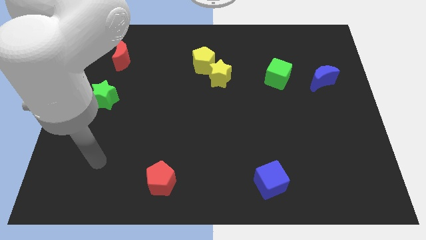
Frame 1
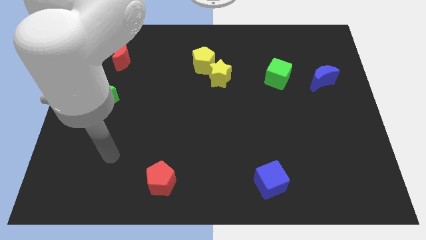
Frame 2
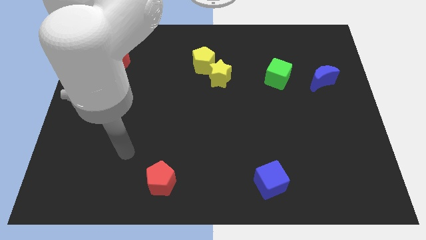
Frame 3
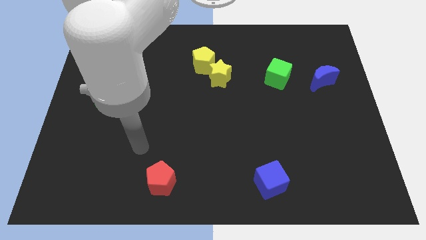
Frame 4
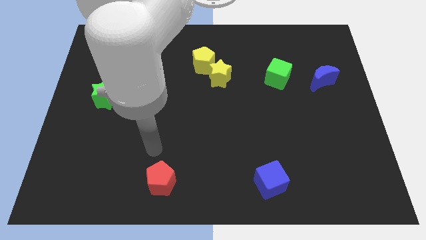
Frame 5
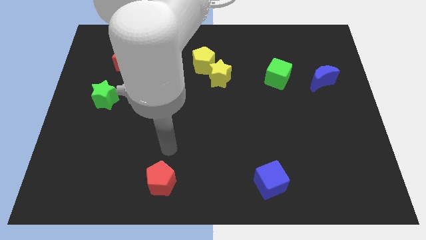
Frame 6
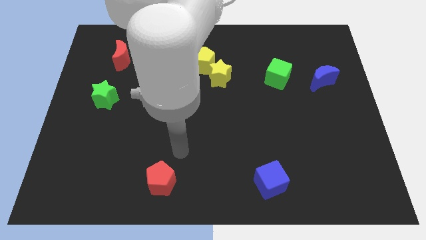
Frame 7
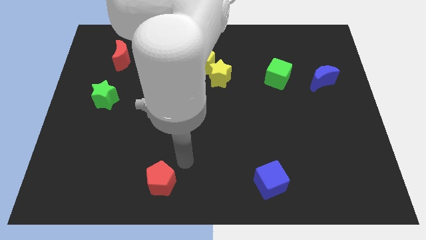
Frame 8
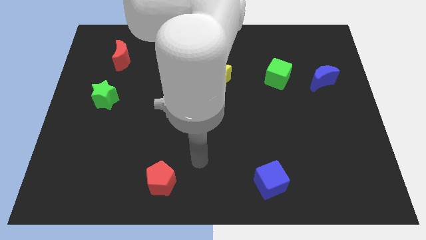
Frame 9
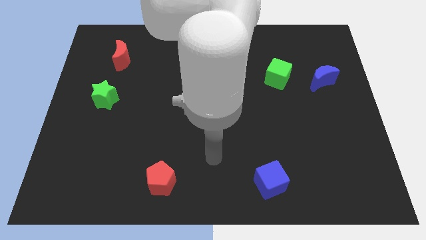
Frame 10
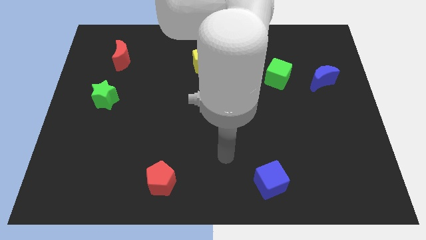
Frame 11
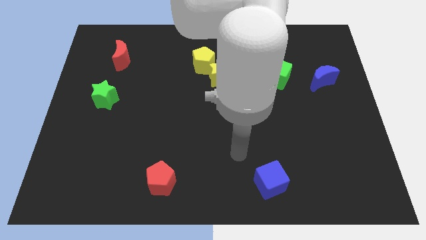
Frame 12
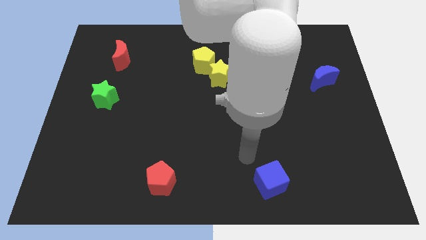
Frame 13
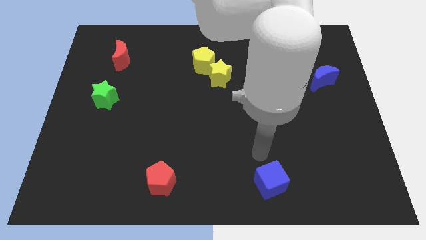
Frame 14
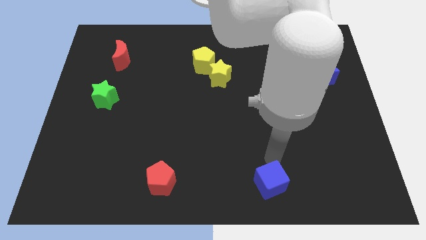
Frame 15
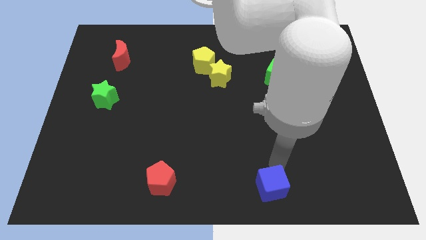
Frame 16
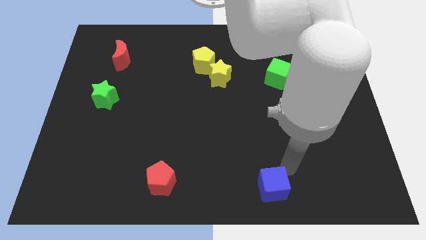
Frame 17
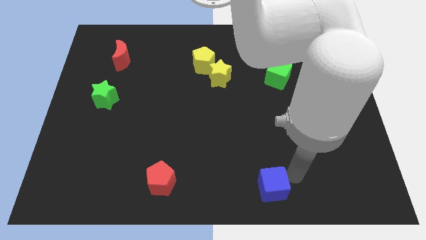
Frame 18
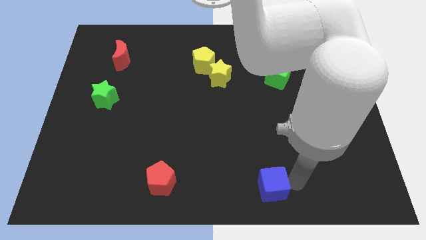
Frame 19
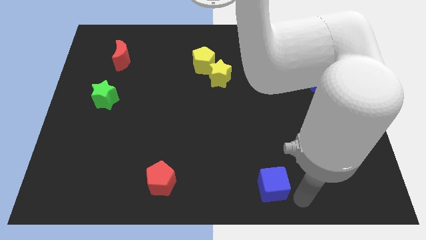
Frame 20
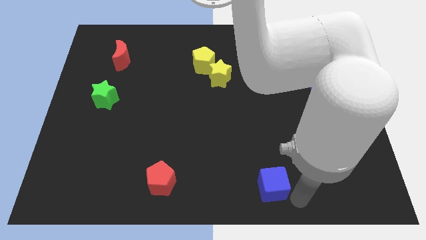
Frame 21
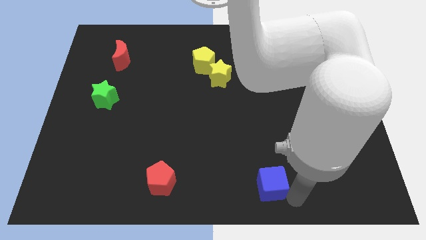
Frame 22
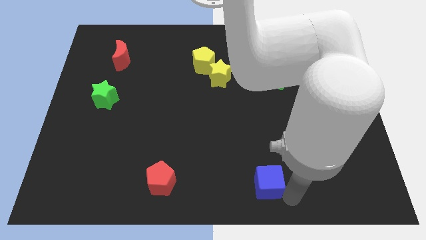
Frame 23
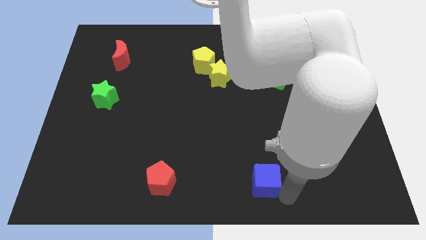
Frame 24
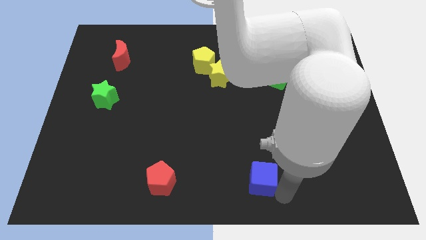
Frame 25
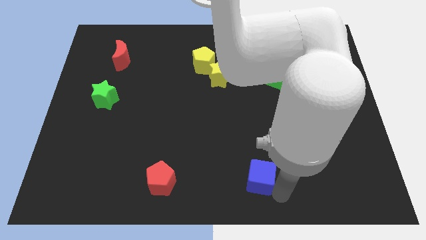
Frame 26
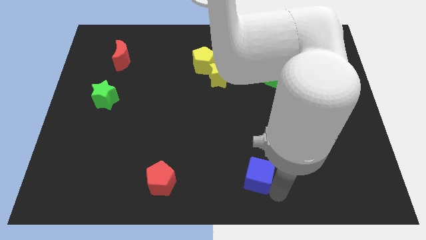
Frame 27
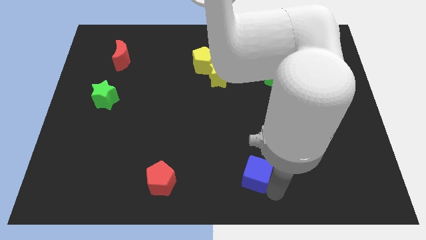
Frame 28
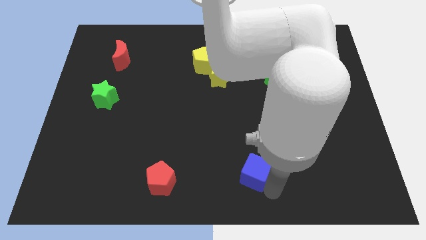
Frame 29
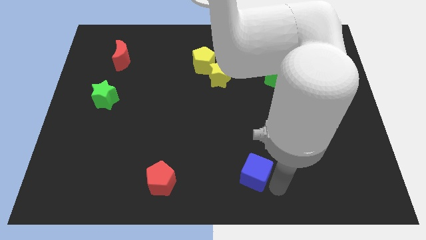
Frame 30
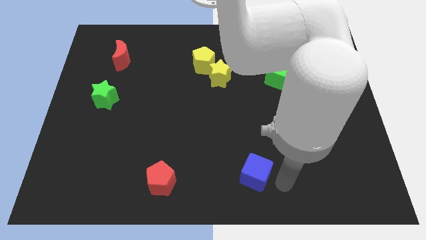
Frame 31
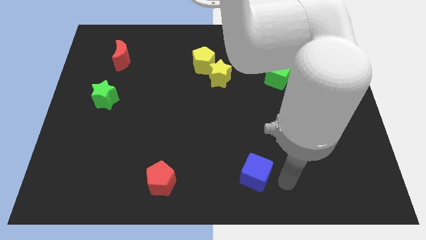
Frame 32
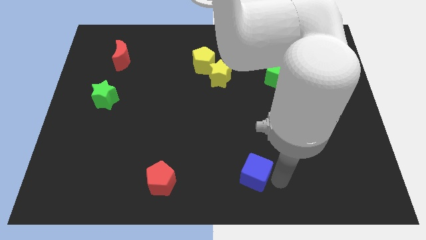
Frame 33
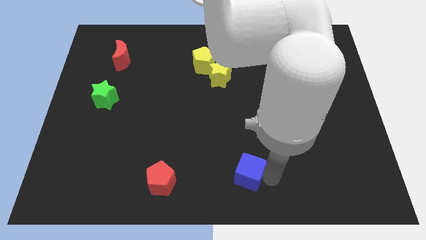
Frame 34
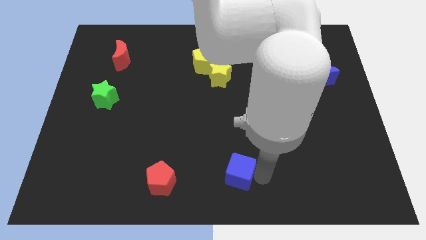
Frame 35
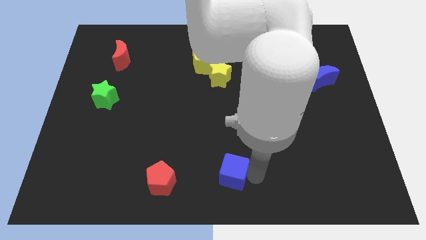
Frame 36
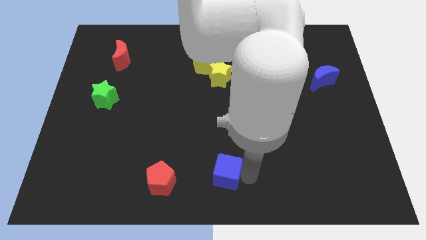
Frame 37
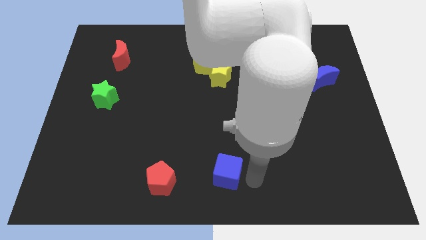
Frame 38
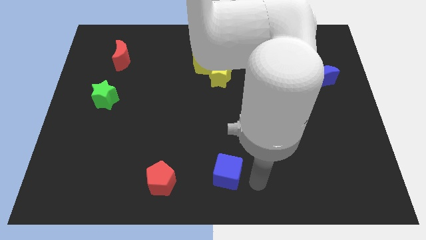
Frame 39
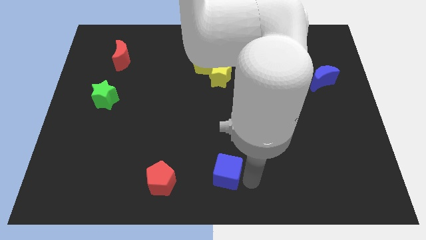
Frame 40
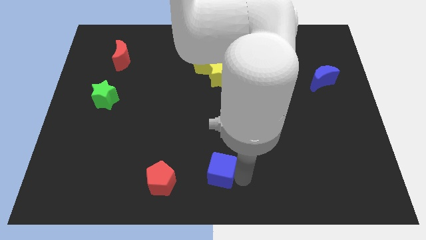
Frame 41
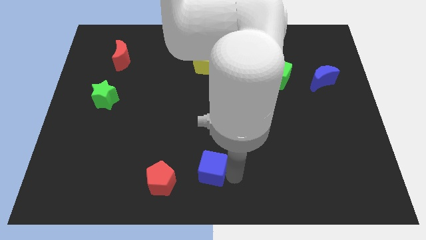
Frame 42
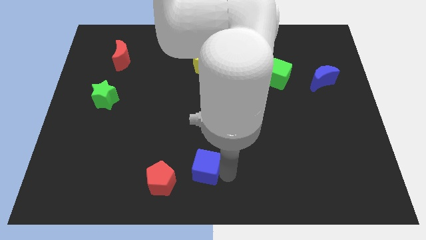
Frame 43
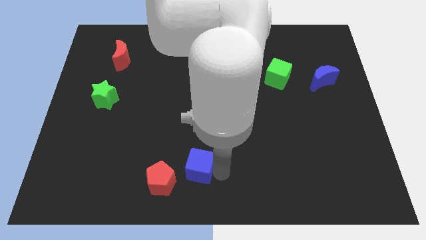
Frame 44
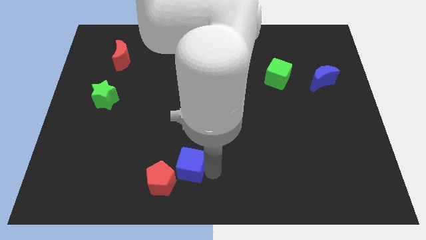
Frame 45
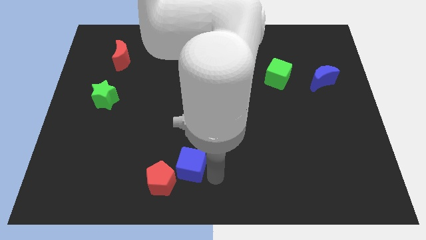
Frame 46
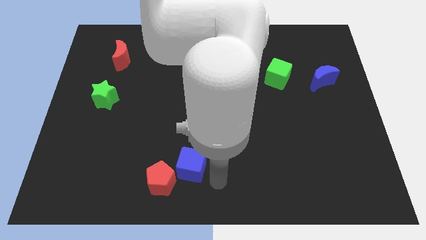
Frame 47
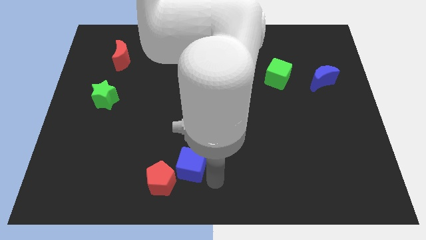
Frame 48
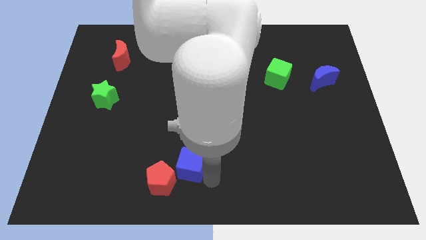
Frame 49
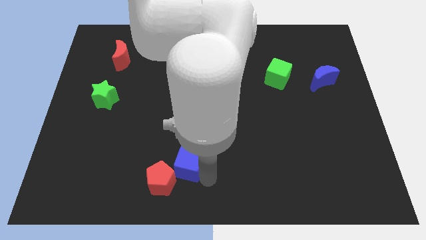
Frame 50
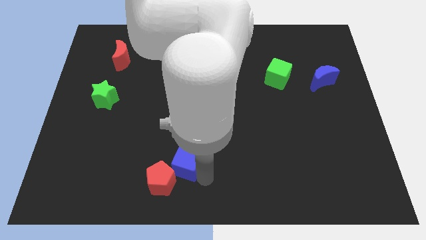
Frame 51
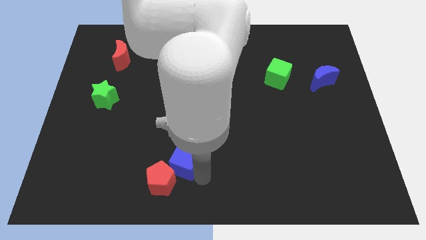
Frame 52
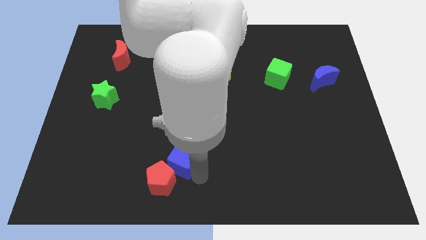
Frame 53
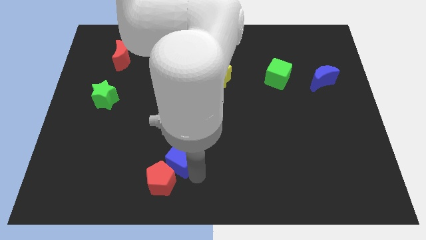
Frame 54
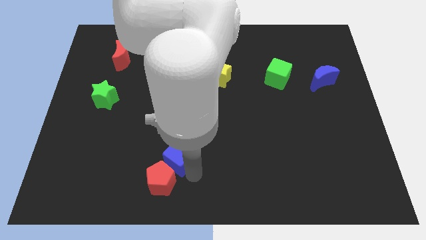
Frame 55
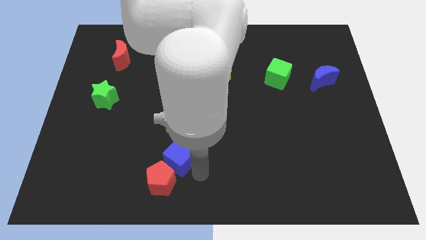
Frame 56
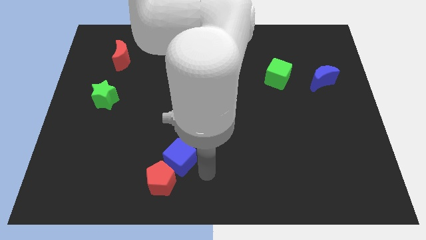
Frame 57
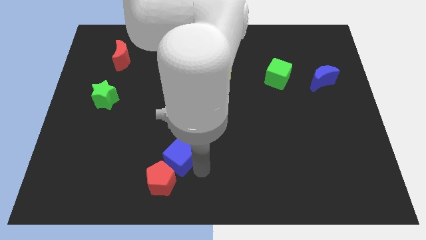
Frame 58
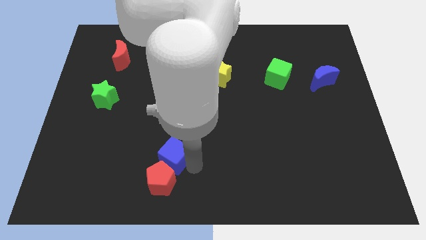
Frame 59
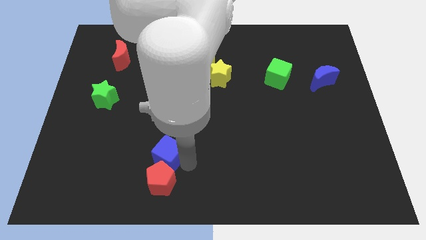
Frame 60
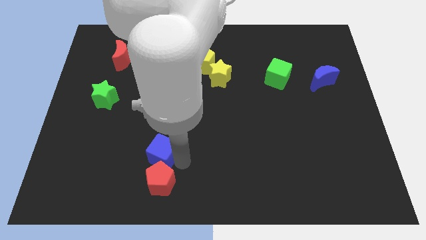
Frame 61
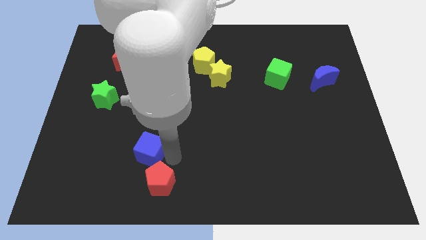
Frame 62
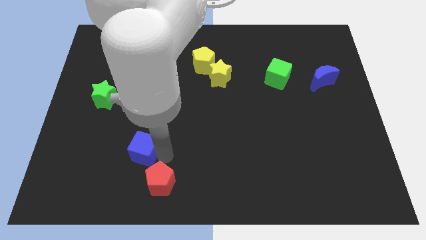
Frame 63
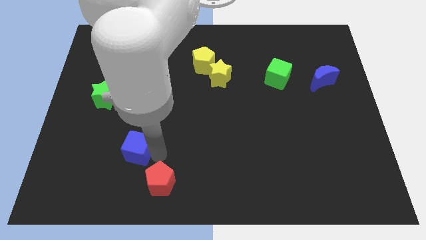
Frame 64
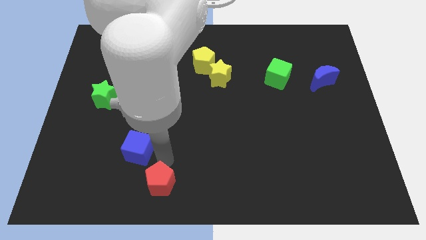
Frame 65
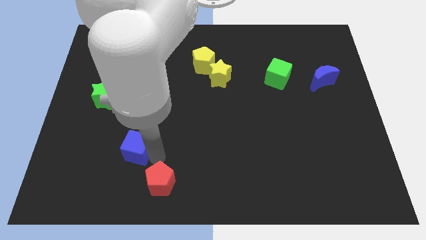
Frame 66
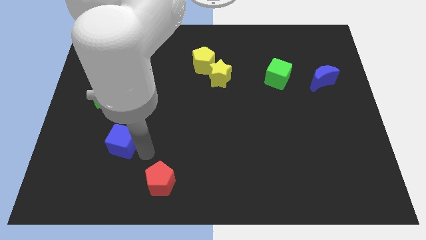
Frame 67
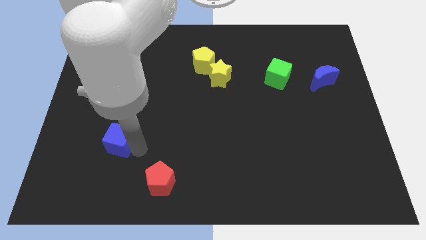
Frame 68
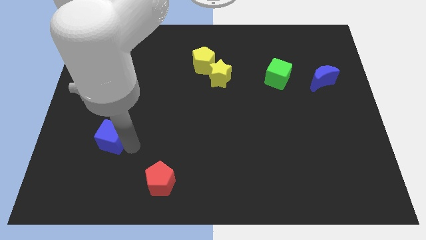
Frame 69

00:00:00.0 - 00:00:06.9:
put the blue cube to the bottom of the green star
